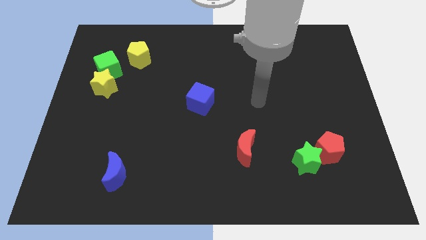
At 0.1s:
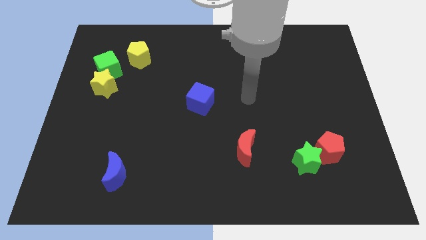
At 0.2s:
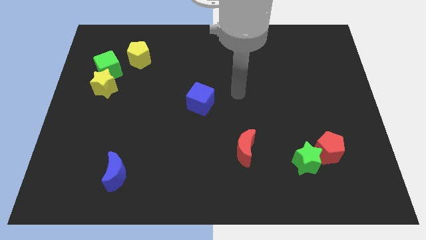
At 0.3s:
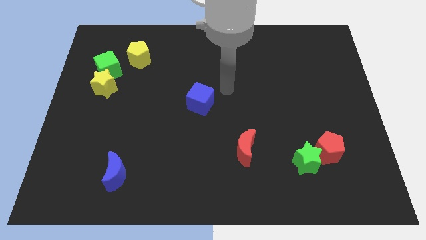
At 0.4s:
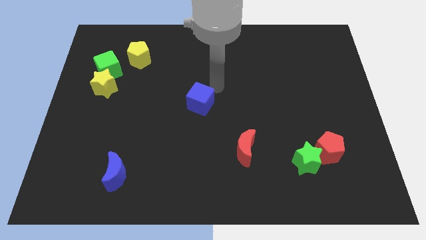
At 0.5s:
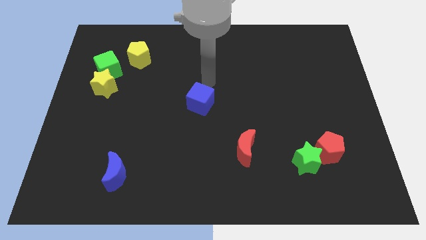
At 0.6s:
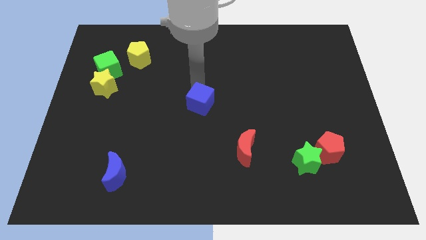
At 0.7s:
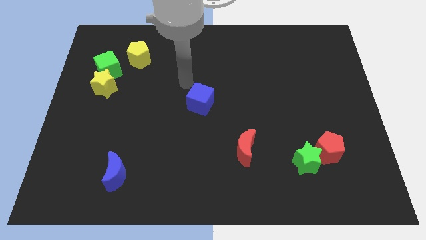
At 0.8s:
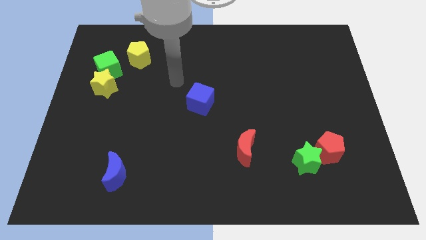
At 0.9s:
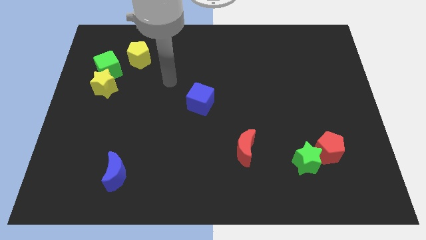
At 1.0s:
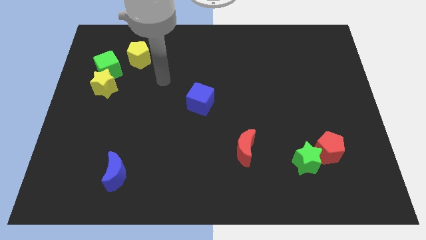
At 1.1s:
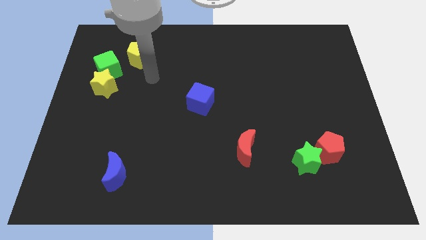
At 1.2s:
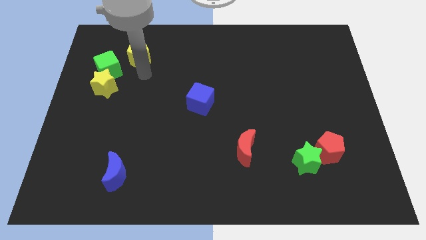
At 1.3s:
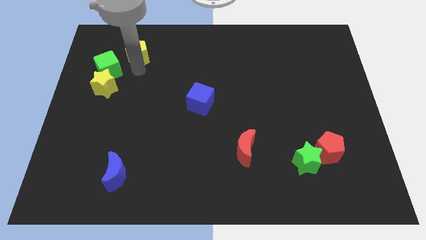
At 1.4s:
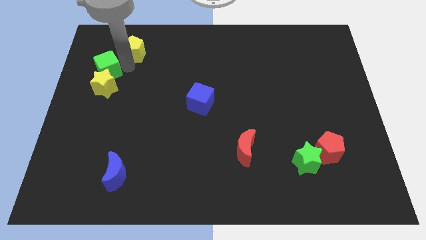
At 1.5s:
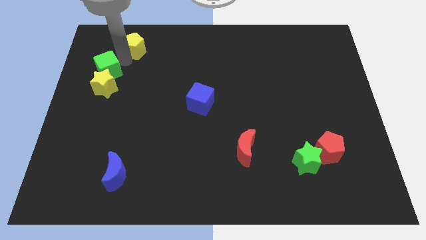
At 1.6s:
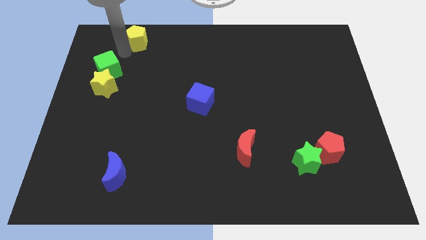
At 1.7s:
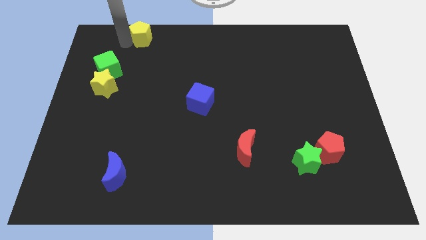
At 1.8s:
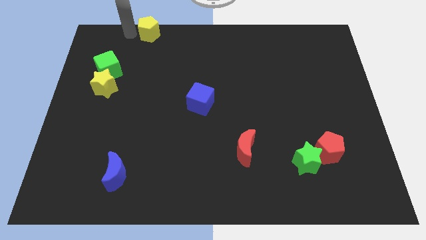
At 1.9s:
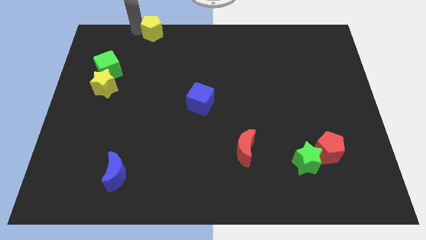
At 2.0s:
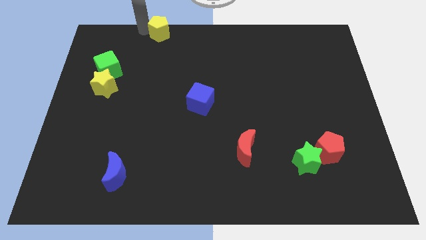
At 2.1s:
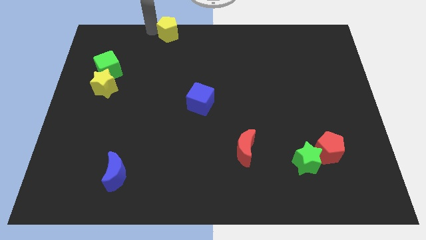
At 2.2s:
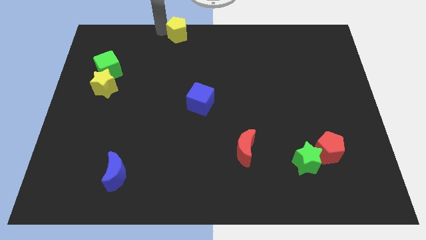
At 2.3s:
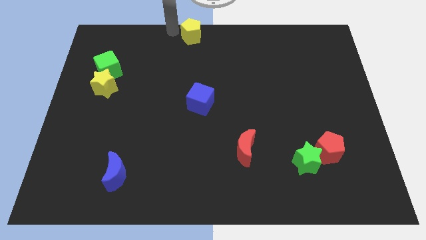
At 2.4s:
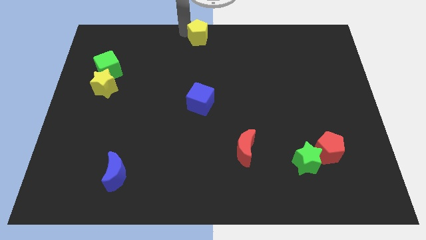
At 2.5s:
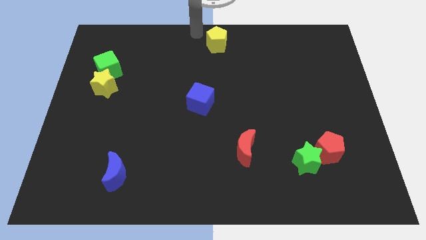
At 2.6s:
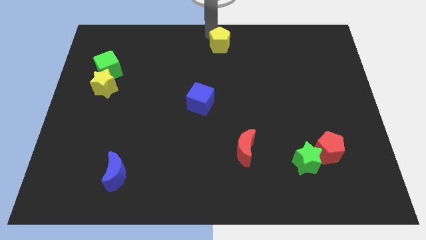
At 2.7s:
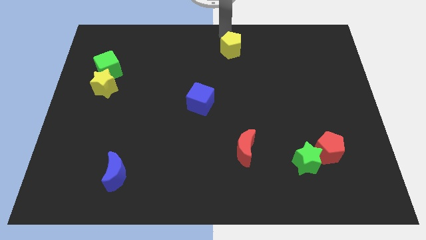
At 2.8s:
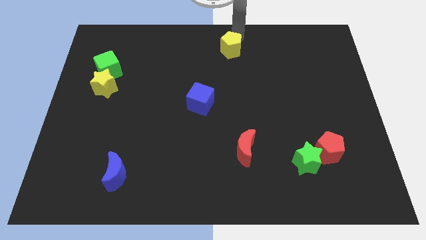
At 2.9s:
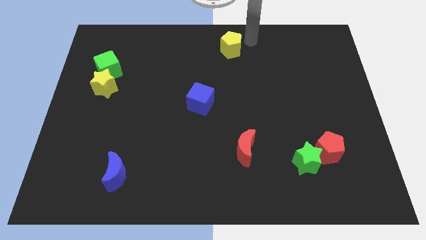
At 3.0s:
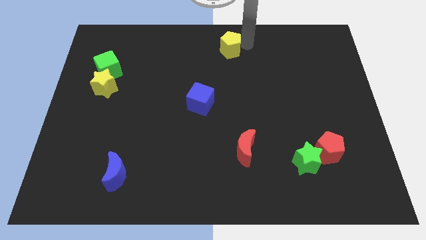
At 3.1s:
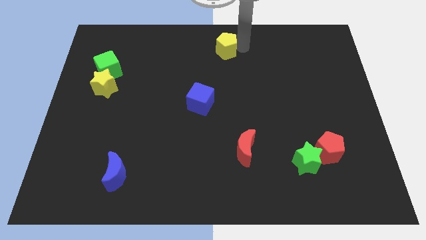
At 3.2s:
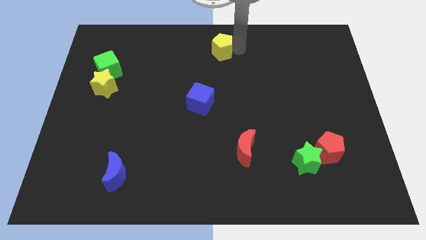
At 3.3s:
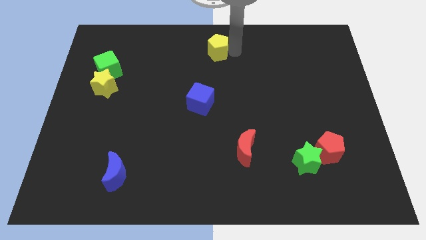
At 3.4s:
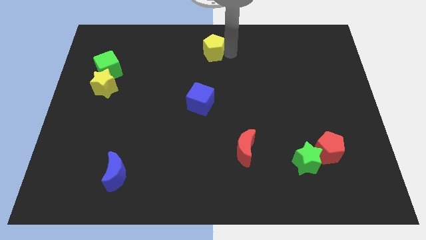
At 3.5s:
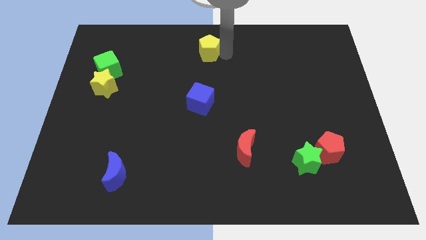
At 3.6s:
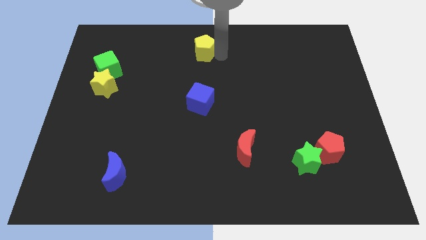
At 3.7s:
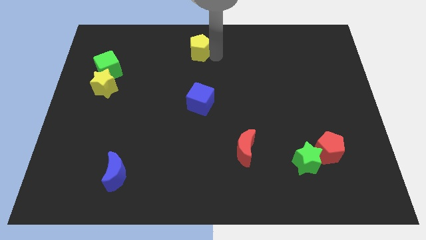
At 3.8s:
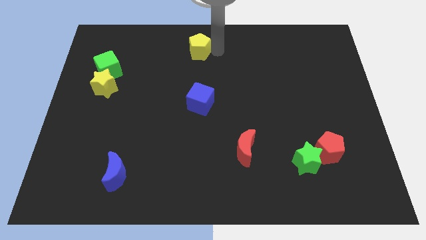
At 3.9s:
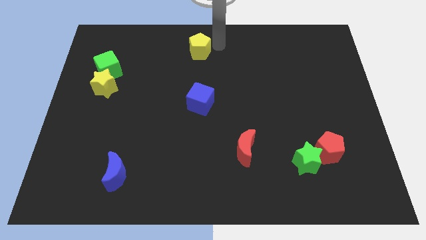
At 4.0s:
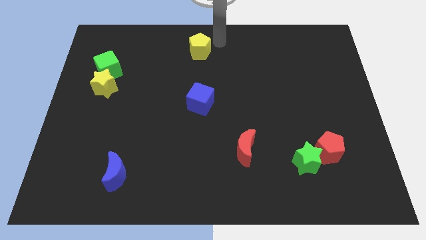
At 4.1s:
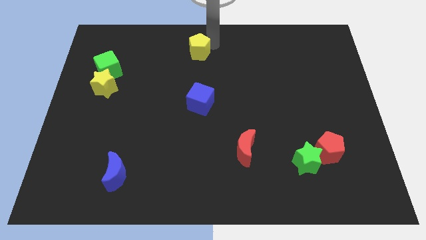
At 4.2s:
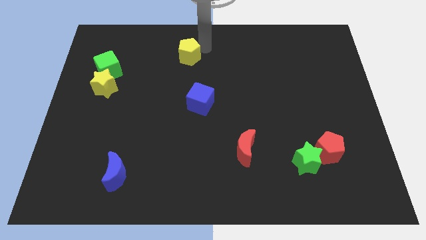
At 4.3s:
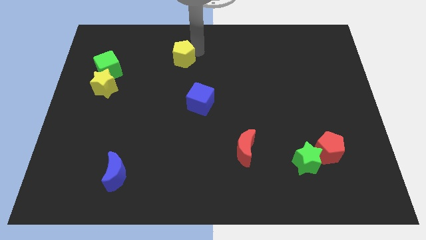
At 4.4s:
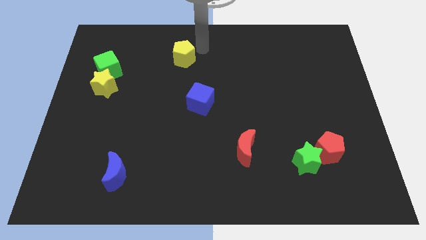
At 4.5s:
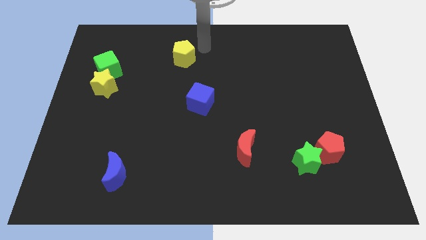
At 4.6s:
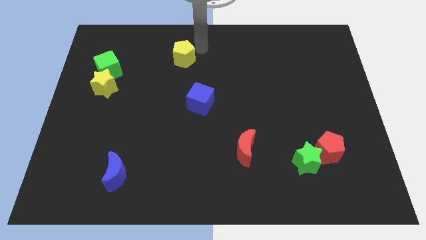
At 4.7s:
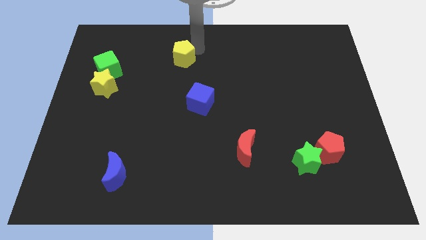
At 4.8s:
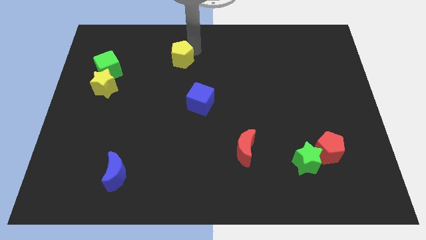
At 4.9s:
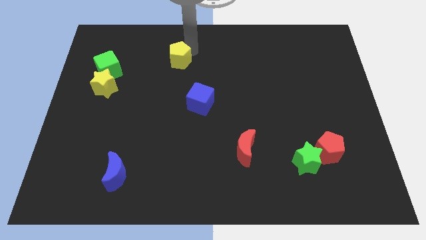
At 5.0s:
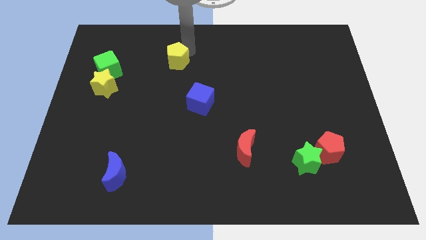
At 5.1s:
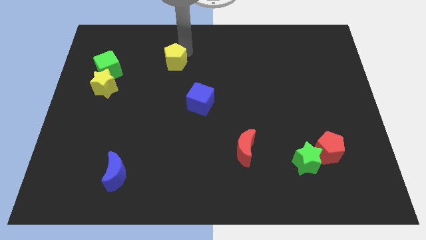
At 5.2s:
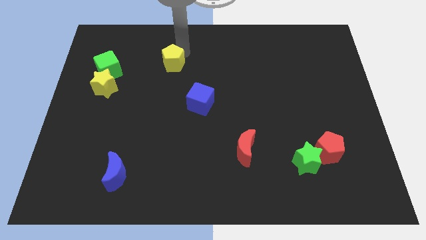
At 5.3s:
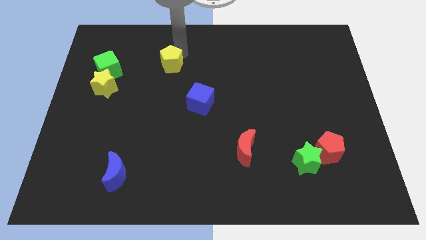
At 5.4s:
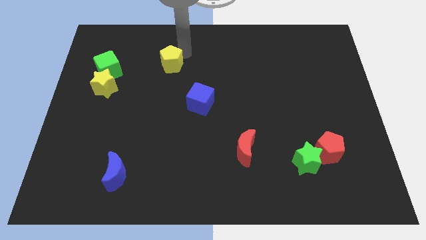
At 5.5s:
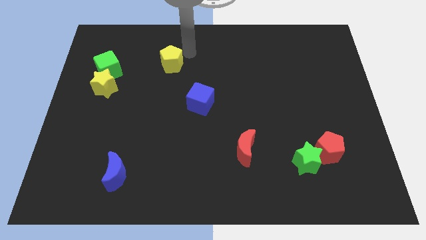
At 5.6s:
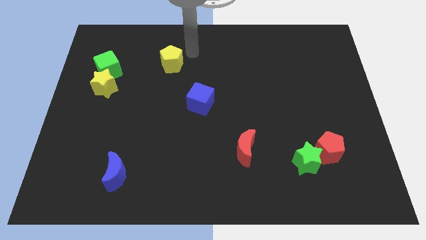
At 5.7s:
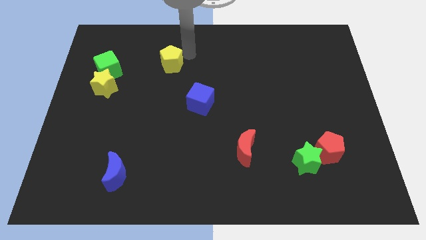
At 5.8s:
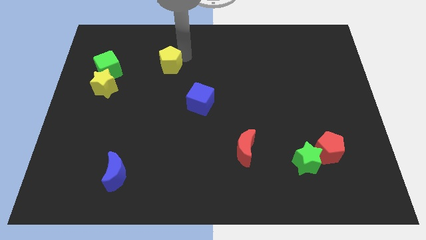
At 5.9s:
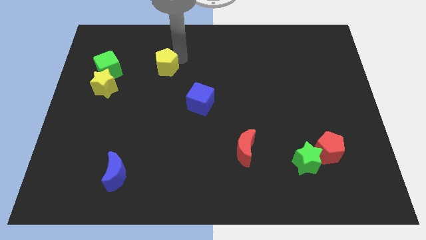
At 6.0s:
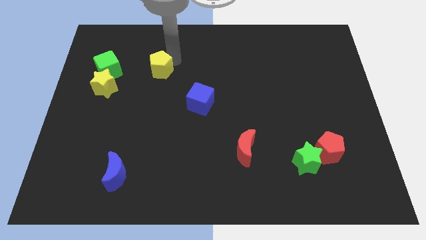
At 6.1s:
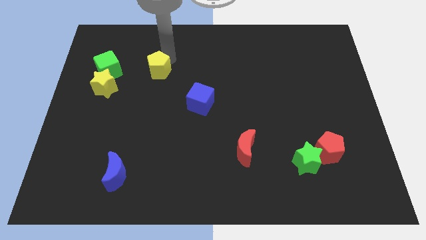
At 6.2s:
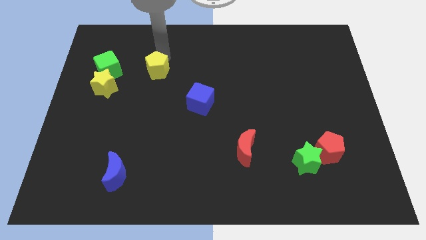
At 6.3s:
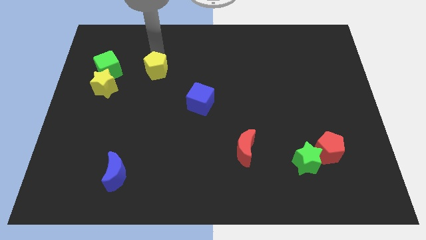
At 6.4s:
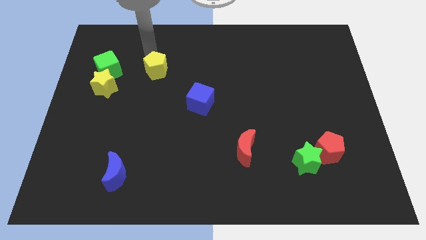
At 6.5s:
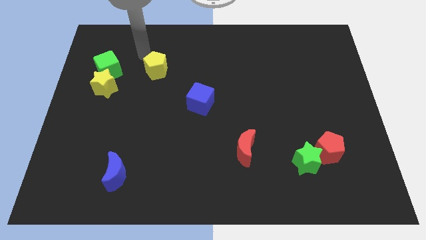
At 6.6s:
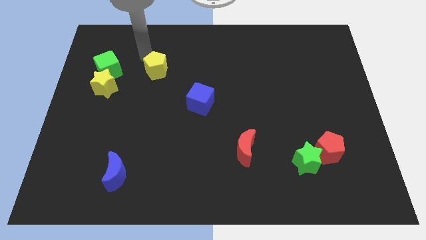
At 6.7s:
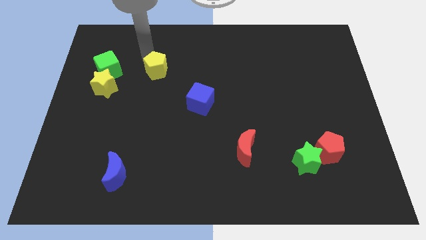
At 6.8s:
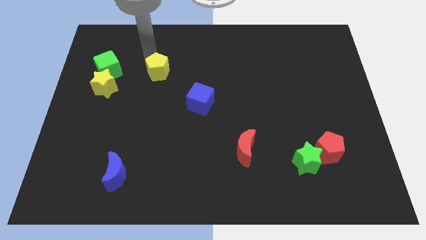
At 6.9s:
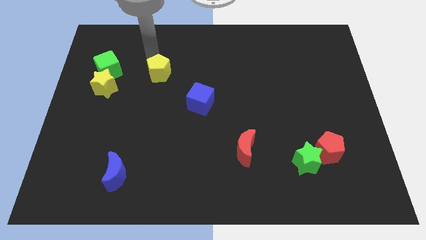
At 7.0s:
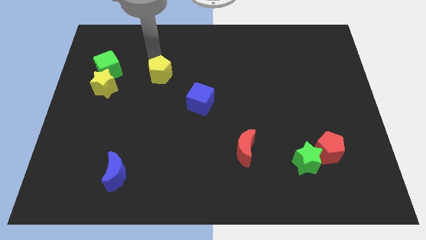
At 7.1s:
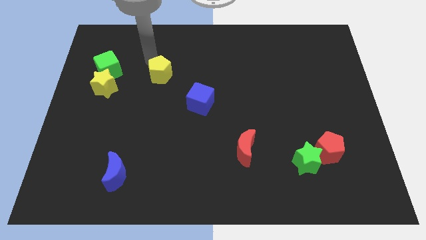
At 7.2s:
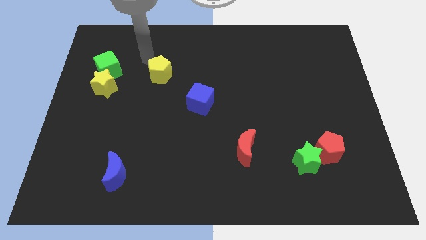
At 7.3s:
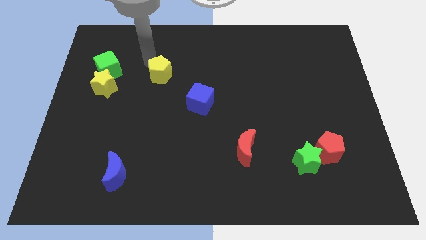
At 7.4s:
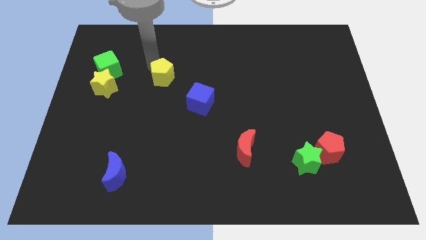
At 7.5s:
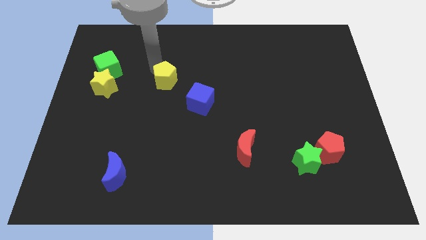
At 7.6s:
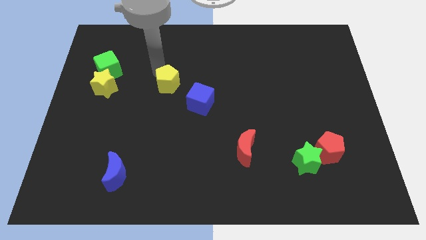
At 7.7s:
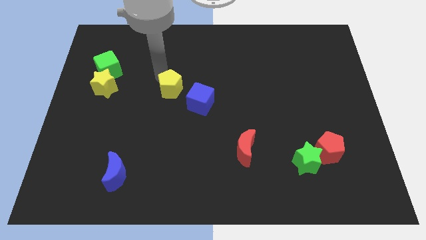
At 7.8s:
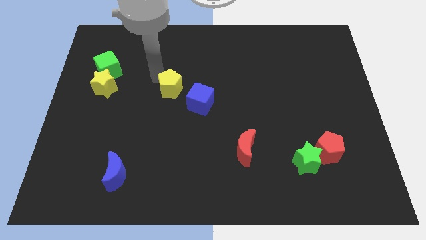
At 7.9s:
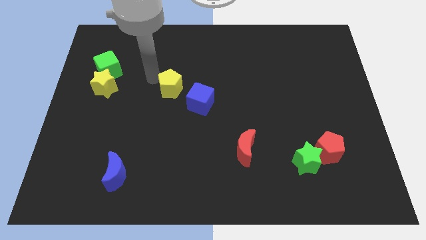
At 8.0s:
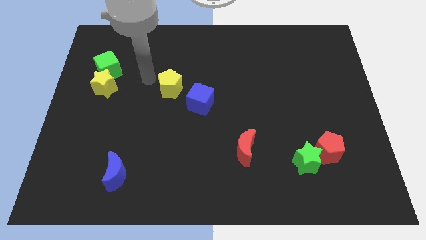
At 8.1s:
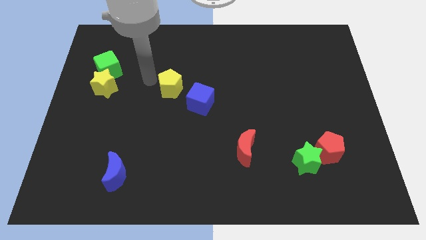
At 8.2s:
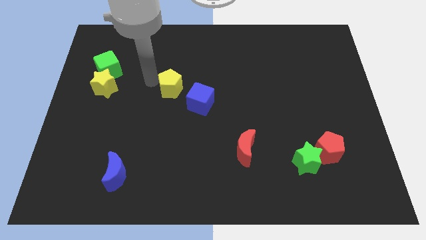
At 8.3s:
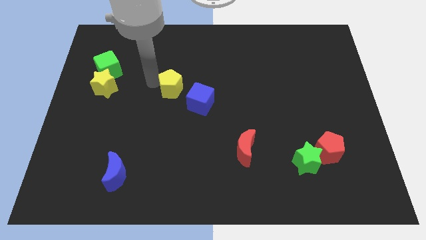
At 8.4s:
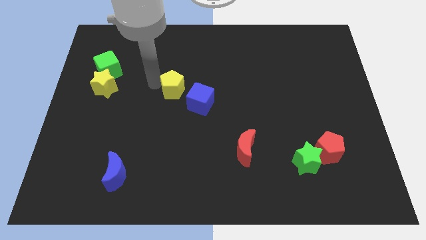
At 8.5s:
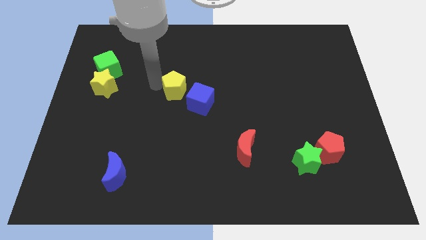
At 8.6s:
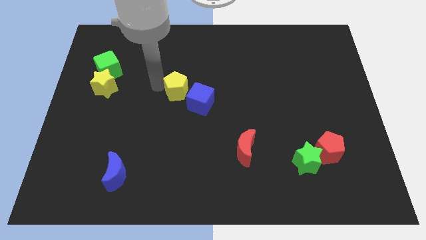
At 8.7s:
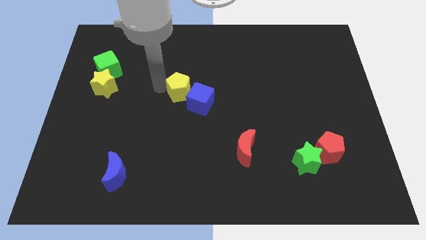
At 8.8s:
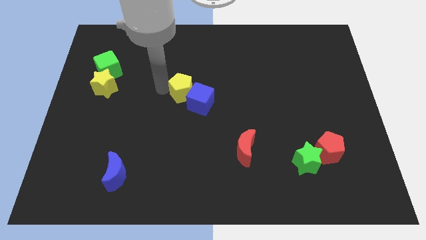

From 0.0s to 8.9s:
slide the yellow pentagon to the blue cube
